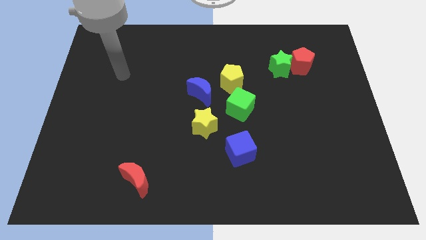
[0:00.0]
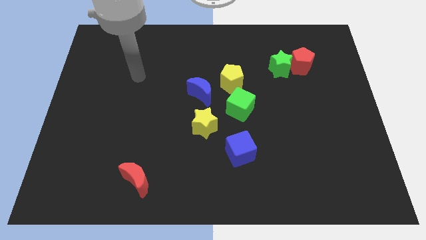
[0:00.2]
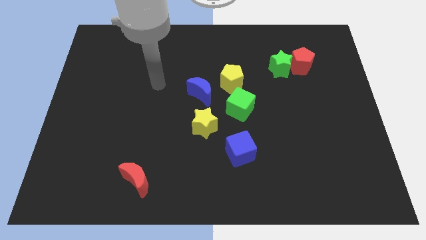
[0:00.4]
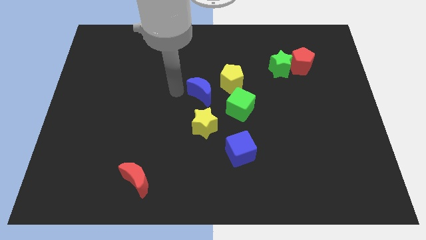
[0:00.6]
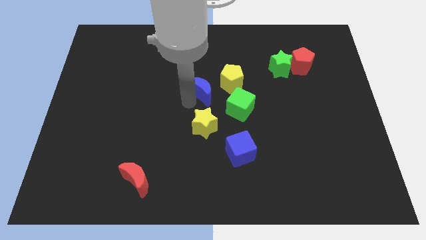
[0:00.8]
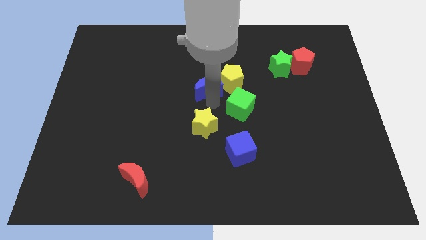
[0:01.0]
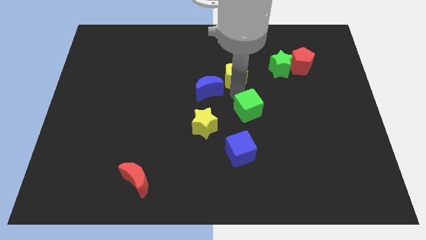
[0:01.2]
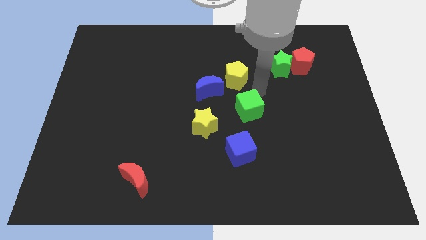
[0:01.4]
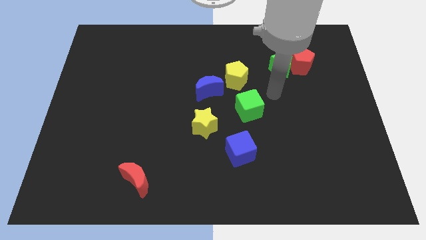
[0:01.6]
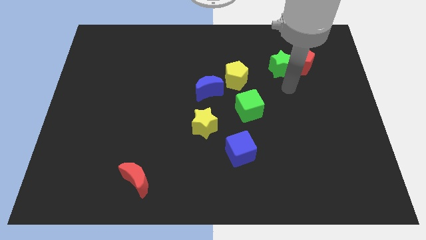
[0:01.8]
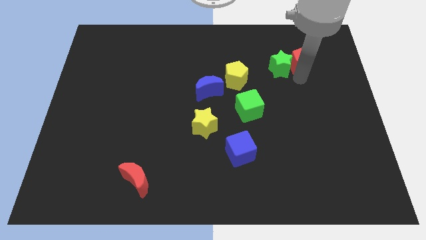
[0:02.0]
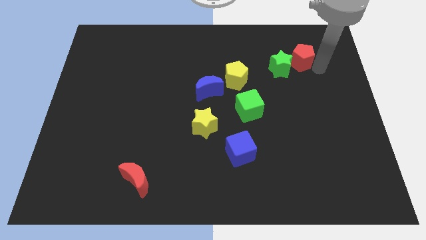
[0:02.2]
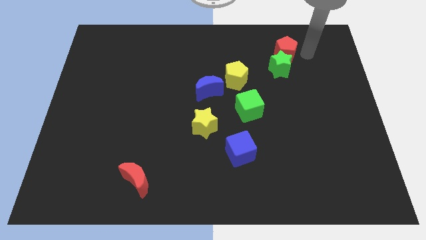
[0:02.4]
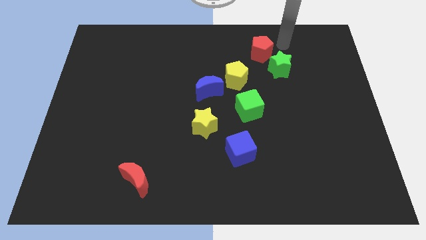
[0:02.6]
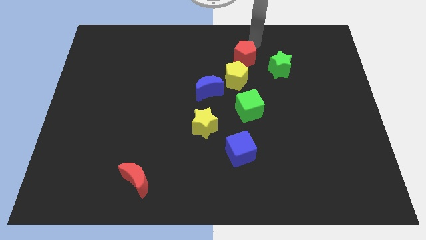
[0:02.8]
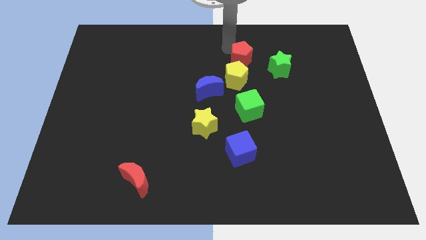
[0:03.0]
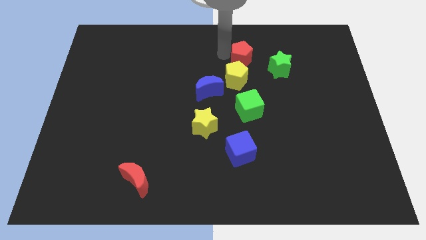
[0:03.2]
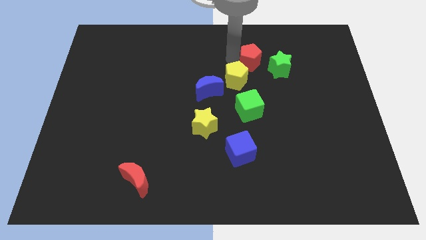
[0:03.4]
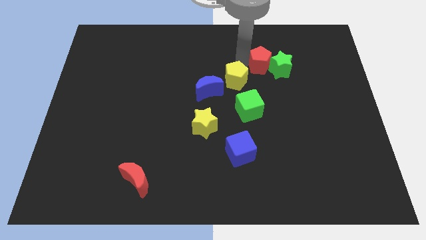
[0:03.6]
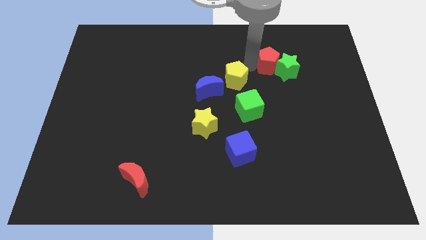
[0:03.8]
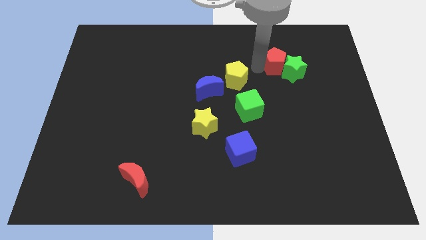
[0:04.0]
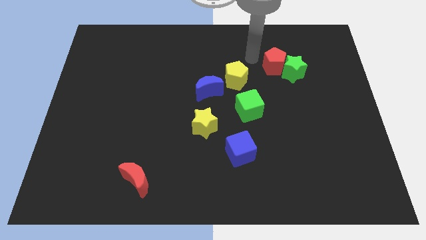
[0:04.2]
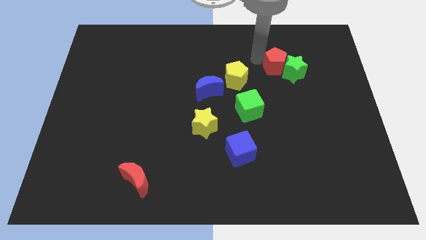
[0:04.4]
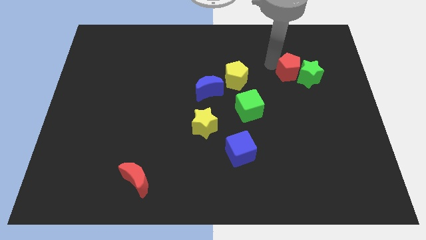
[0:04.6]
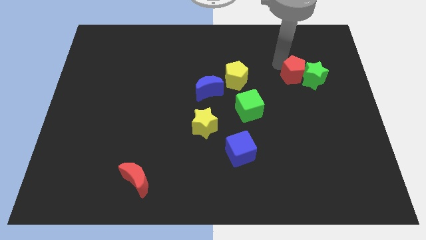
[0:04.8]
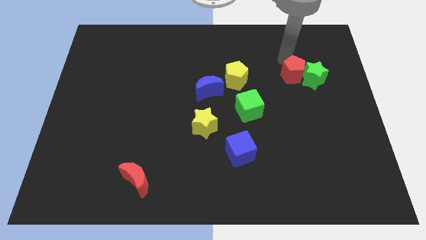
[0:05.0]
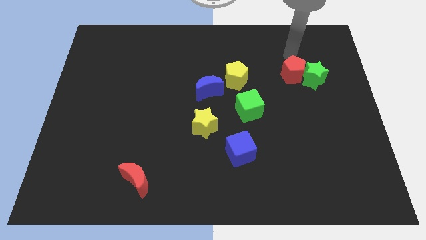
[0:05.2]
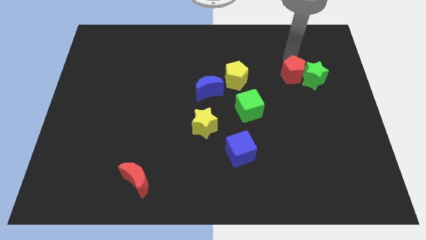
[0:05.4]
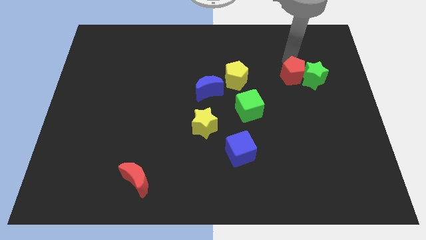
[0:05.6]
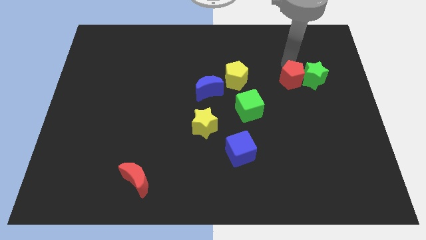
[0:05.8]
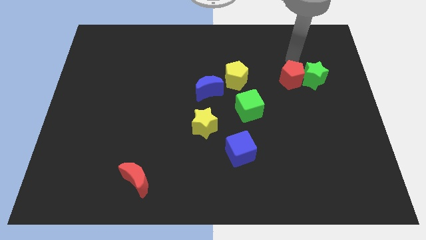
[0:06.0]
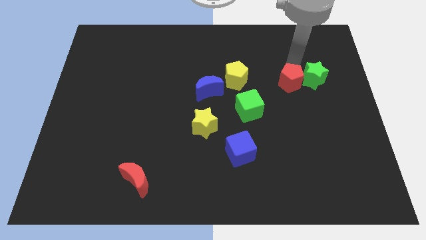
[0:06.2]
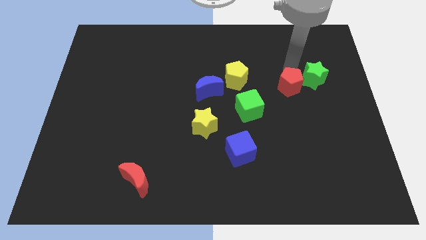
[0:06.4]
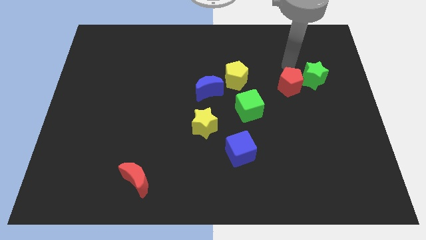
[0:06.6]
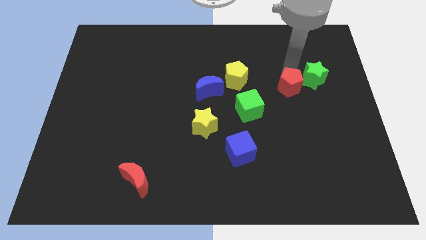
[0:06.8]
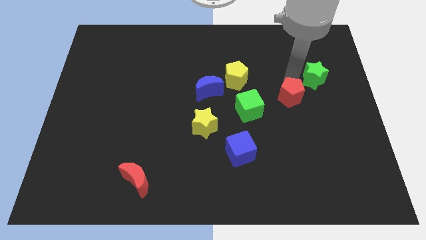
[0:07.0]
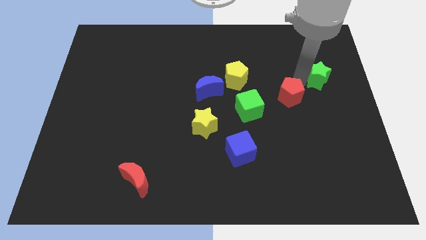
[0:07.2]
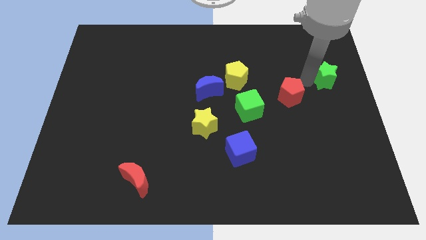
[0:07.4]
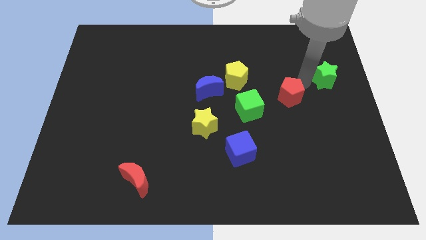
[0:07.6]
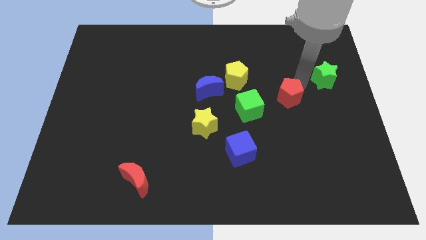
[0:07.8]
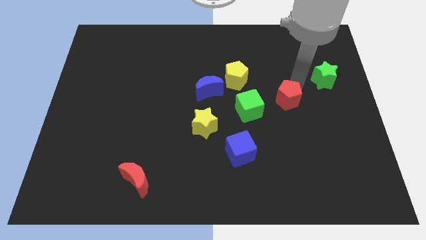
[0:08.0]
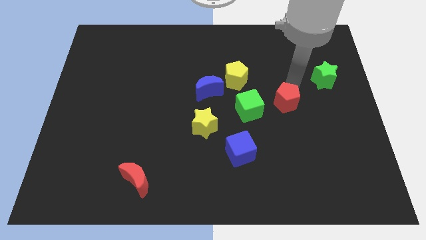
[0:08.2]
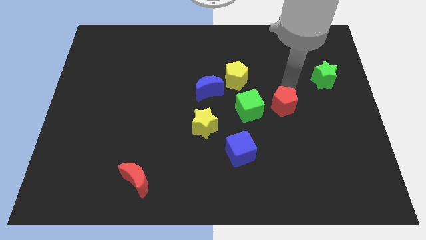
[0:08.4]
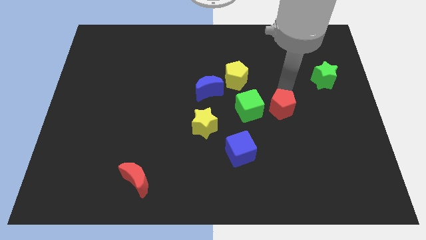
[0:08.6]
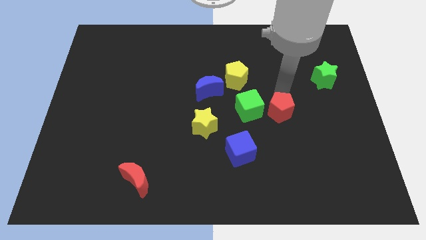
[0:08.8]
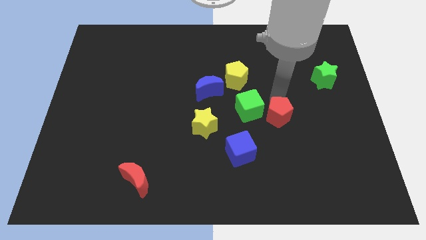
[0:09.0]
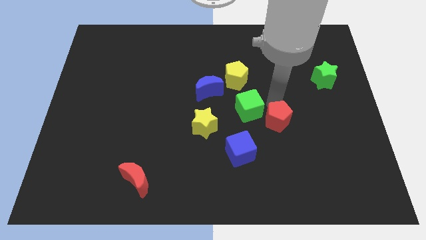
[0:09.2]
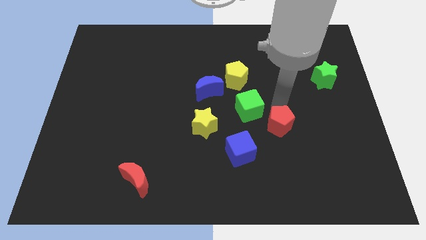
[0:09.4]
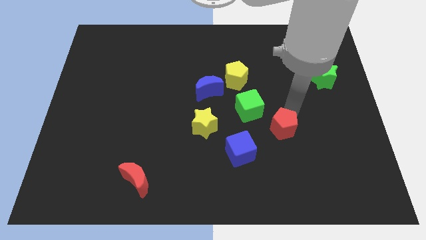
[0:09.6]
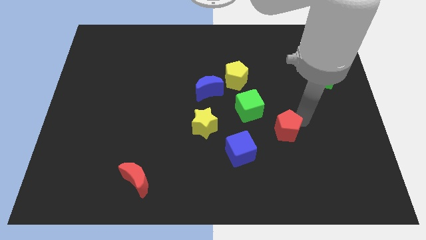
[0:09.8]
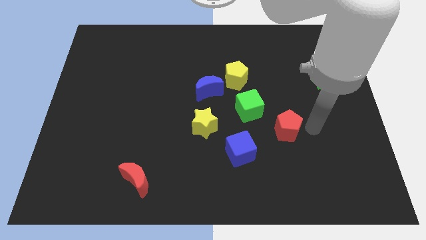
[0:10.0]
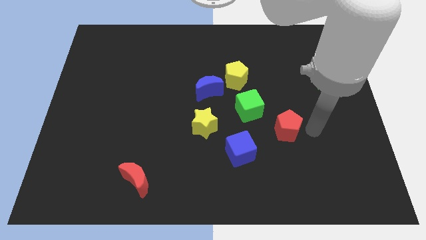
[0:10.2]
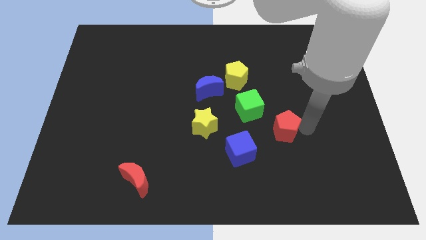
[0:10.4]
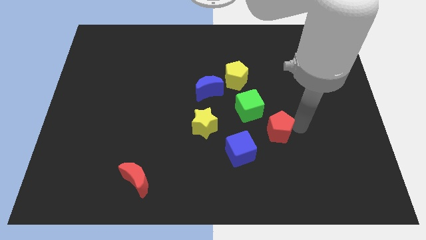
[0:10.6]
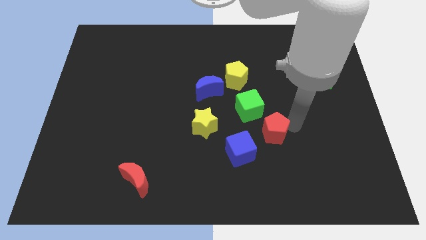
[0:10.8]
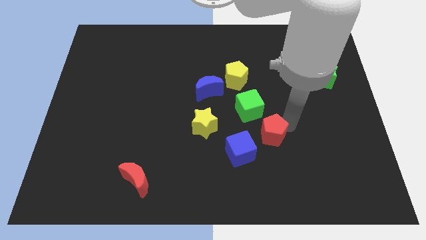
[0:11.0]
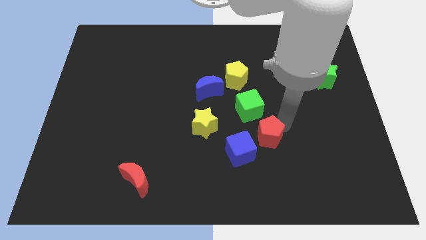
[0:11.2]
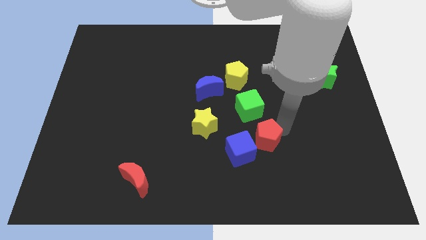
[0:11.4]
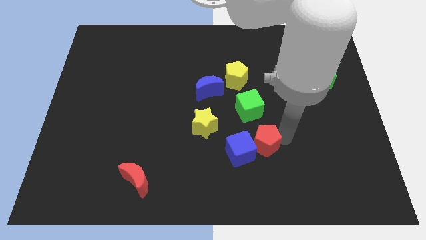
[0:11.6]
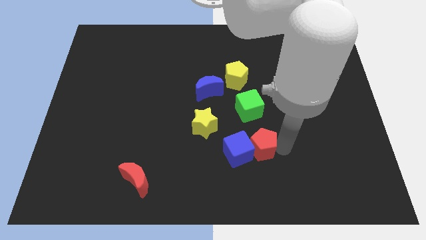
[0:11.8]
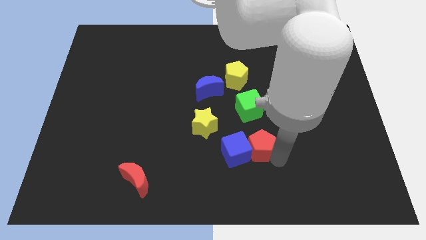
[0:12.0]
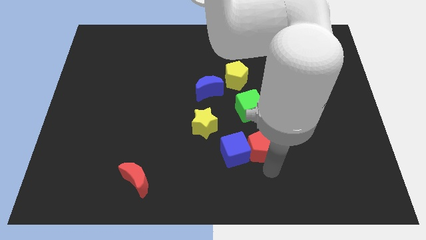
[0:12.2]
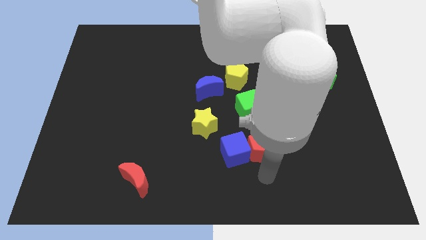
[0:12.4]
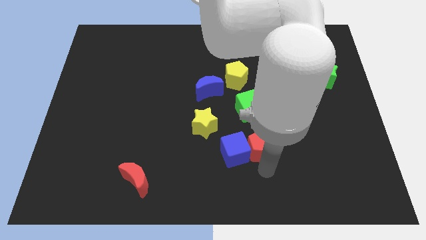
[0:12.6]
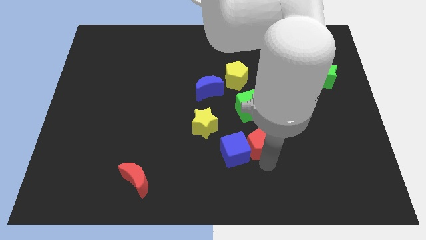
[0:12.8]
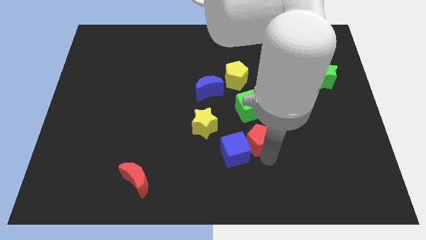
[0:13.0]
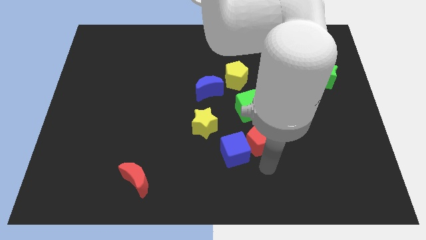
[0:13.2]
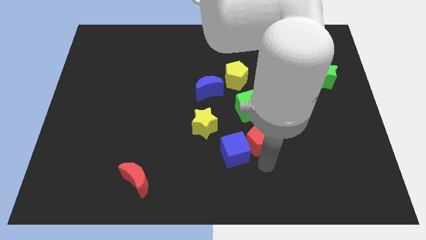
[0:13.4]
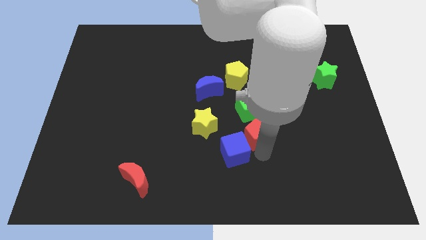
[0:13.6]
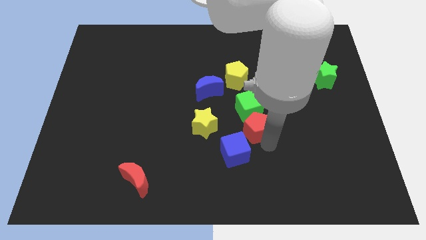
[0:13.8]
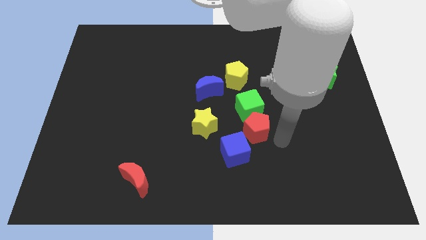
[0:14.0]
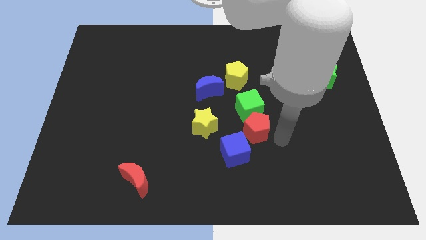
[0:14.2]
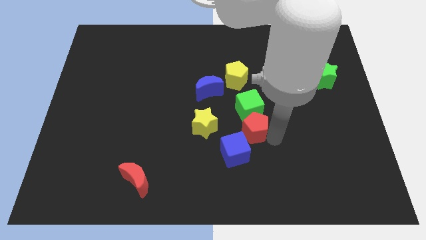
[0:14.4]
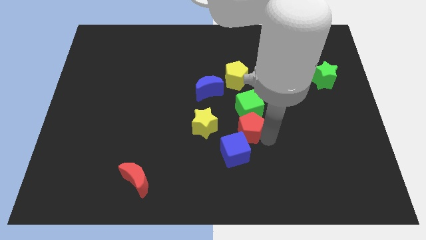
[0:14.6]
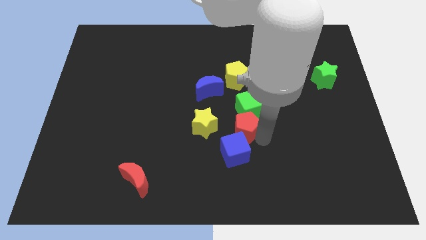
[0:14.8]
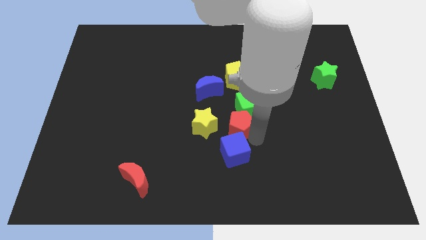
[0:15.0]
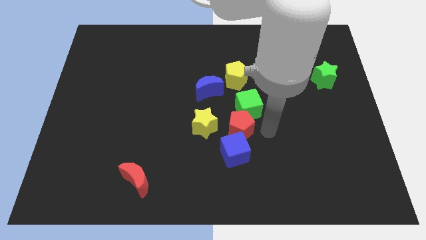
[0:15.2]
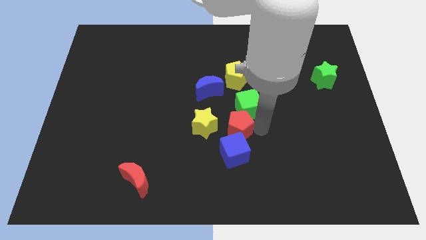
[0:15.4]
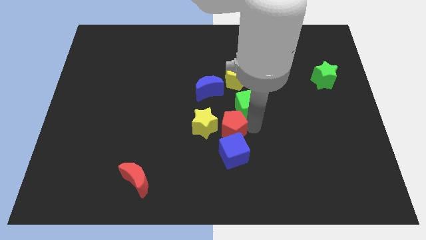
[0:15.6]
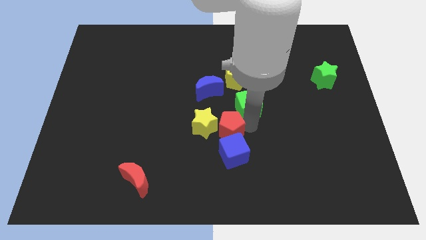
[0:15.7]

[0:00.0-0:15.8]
put the red pentagon close to the yellow star
